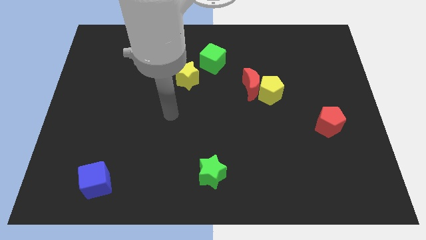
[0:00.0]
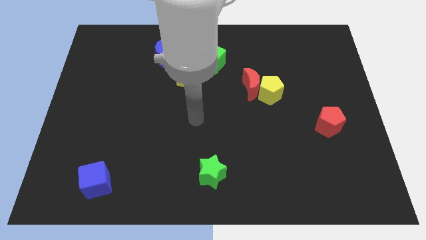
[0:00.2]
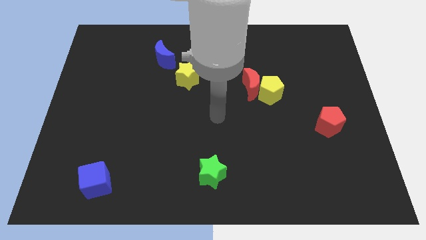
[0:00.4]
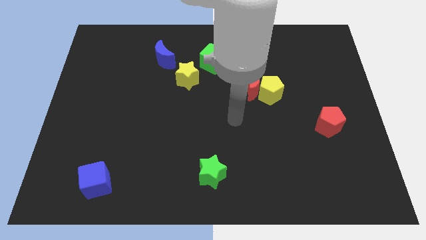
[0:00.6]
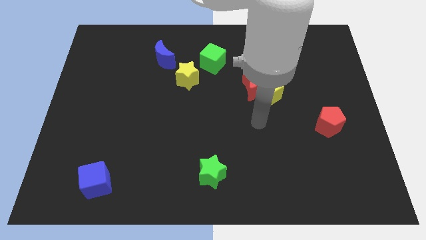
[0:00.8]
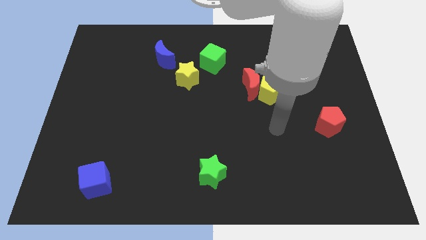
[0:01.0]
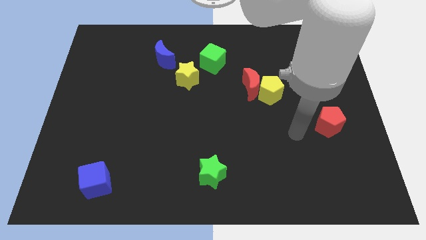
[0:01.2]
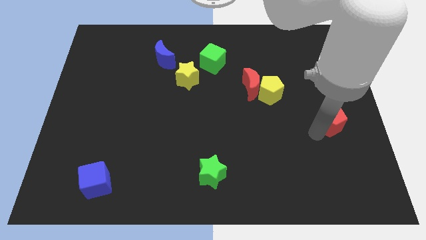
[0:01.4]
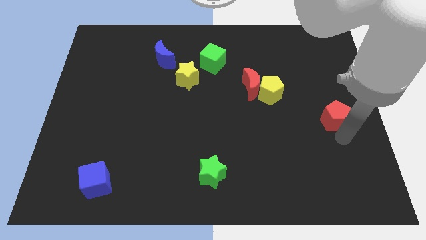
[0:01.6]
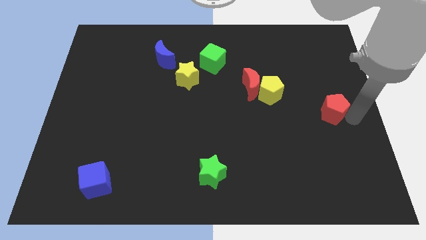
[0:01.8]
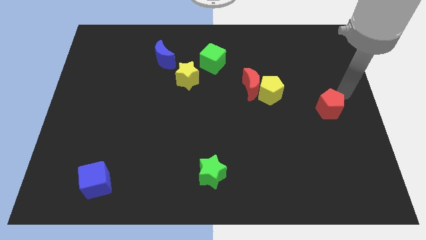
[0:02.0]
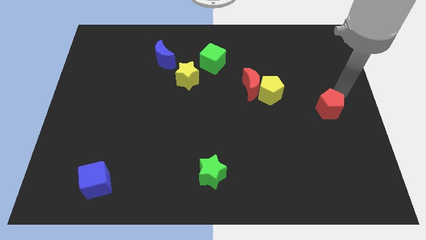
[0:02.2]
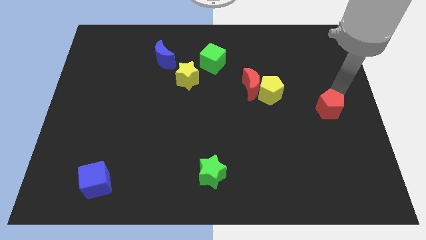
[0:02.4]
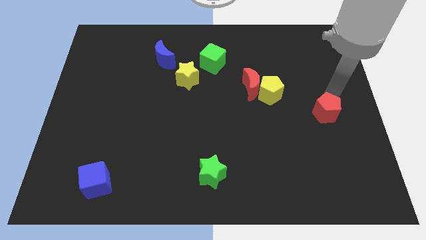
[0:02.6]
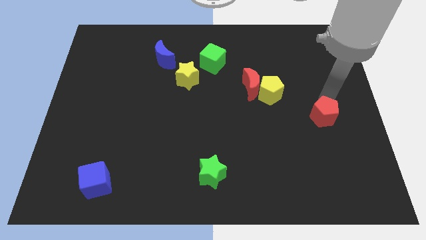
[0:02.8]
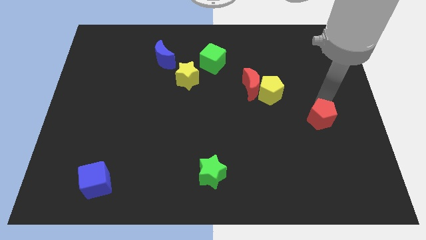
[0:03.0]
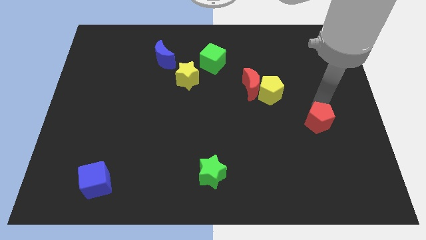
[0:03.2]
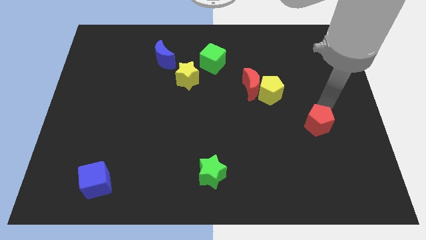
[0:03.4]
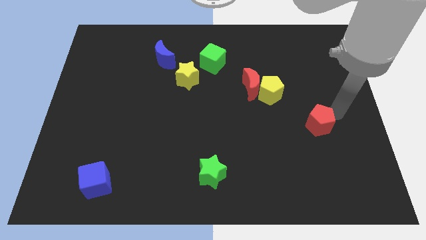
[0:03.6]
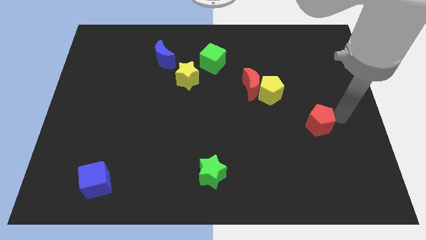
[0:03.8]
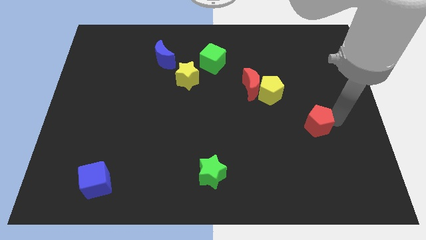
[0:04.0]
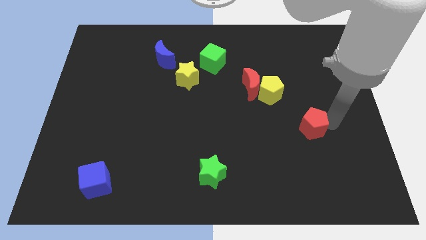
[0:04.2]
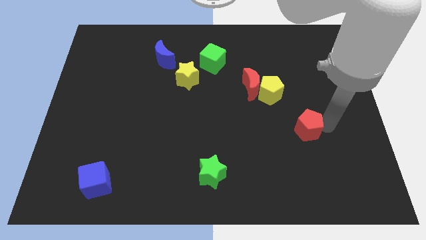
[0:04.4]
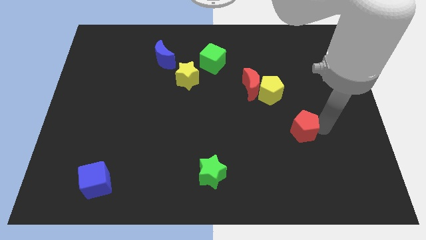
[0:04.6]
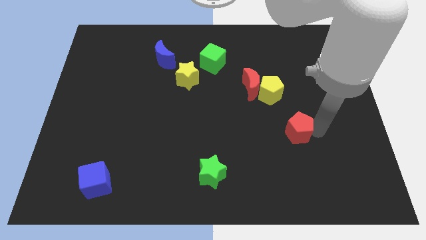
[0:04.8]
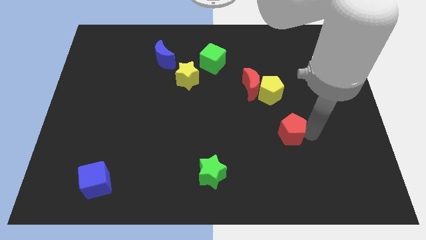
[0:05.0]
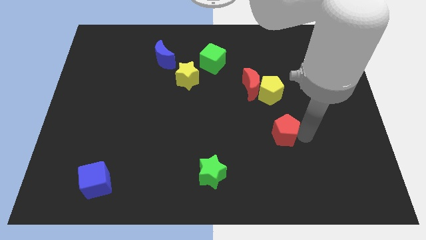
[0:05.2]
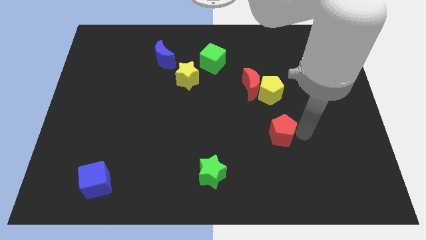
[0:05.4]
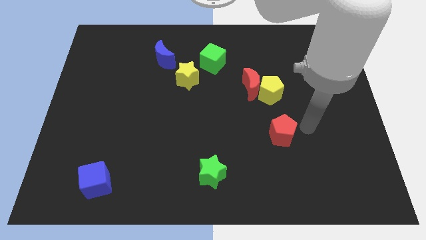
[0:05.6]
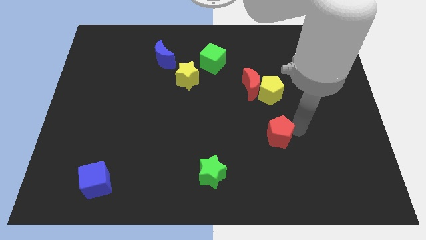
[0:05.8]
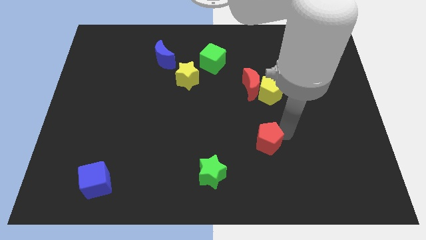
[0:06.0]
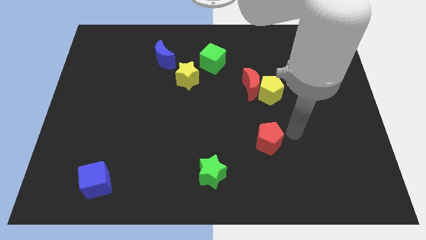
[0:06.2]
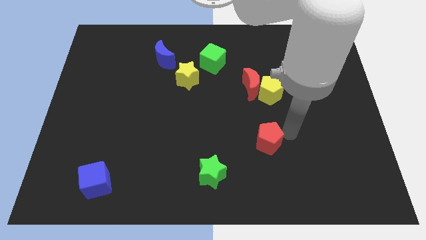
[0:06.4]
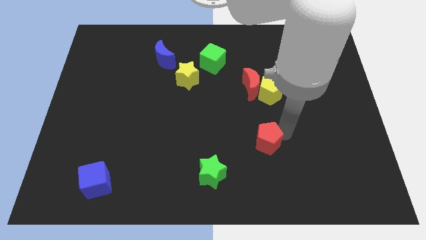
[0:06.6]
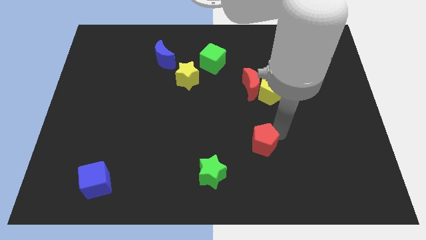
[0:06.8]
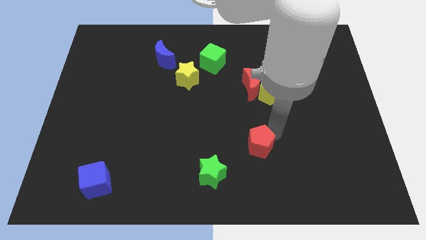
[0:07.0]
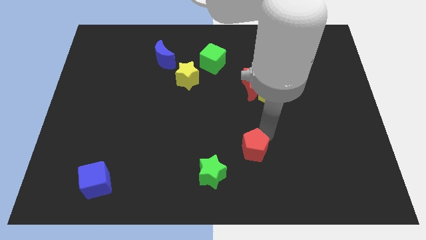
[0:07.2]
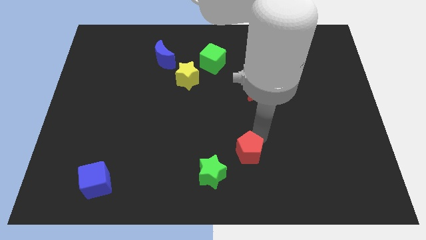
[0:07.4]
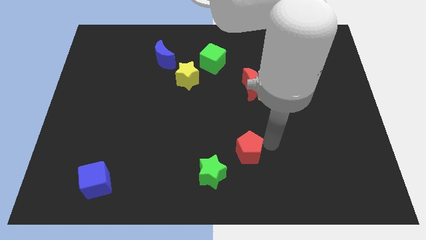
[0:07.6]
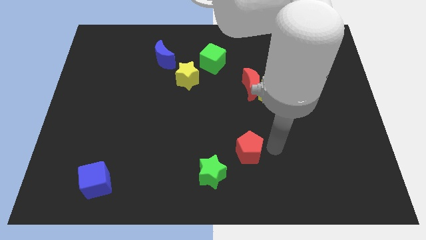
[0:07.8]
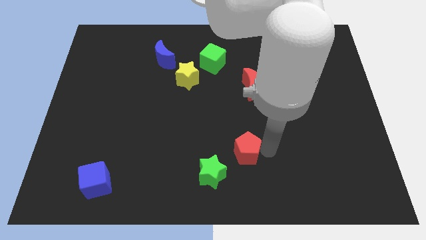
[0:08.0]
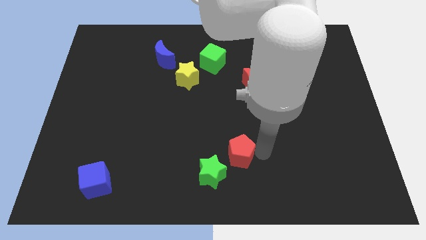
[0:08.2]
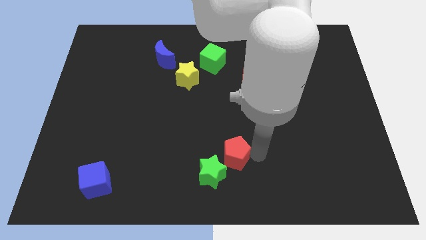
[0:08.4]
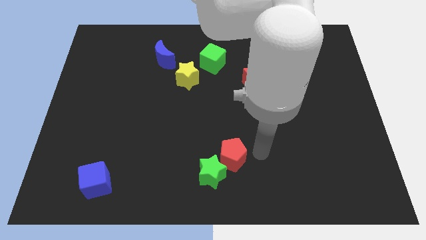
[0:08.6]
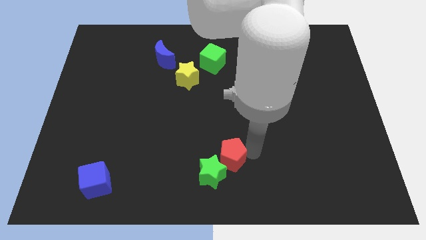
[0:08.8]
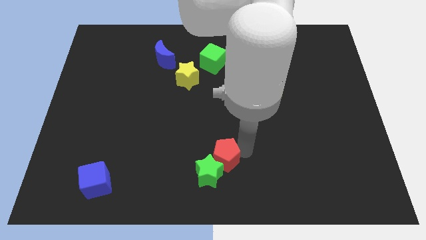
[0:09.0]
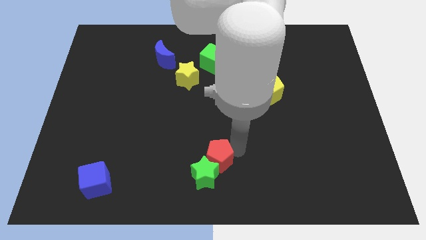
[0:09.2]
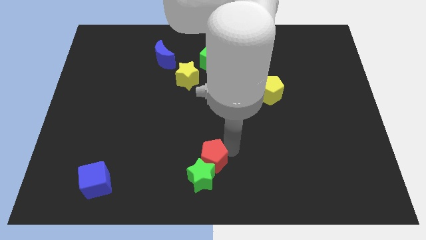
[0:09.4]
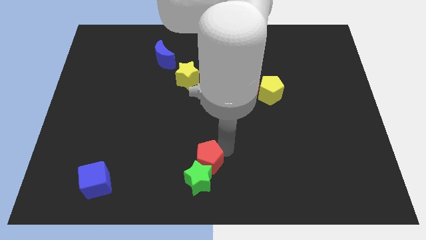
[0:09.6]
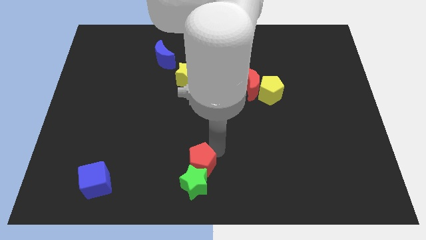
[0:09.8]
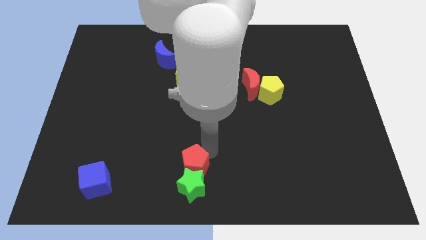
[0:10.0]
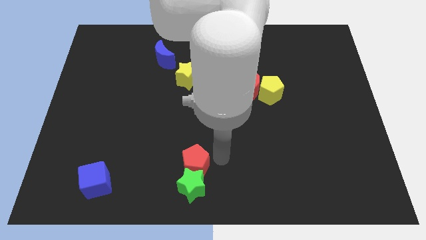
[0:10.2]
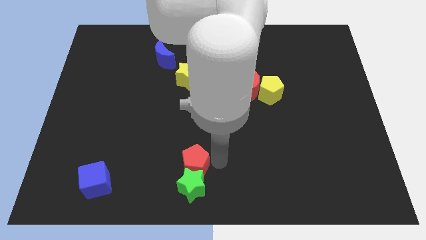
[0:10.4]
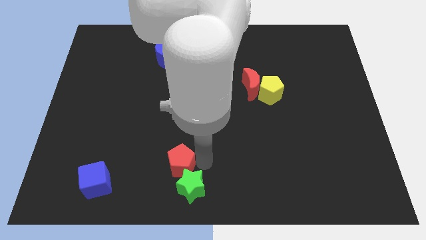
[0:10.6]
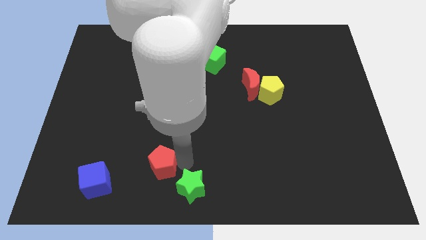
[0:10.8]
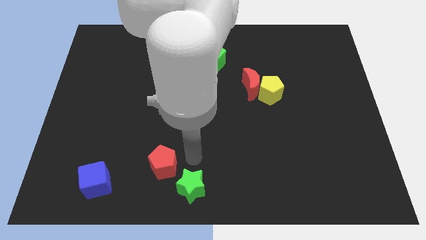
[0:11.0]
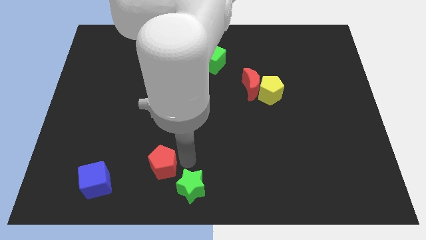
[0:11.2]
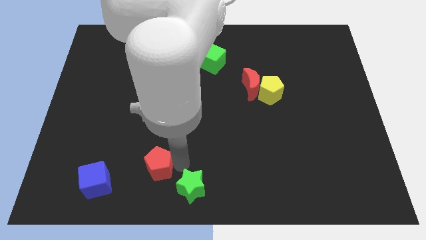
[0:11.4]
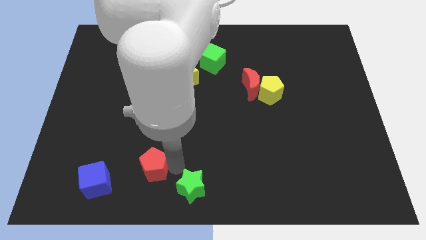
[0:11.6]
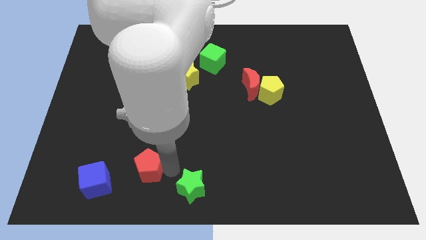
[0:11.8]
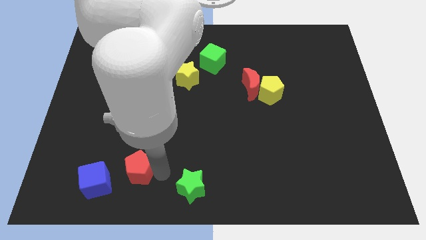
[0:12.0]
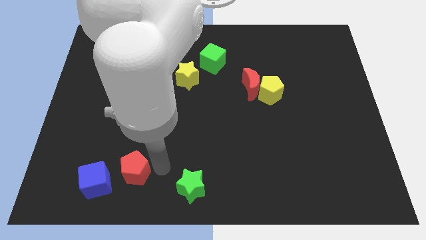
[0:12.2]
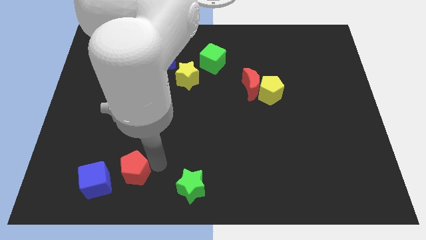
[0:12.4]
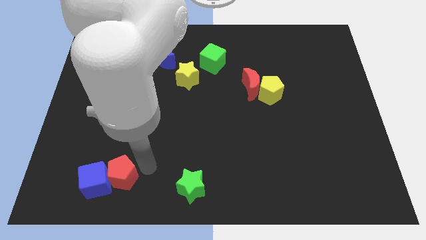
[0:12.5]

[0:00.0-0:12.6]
push the red pentagon to the blue cube

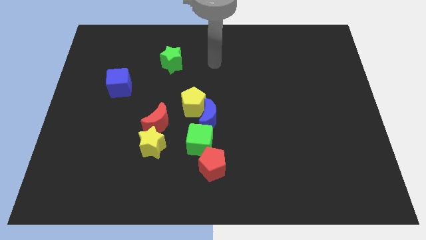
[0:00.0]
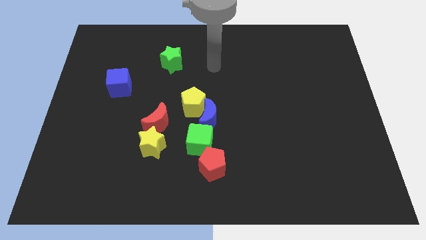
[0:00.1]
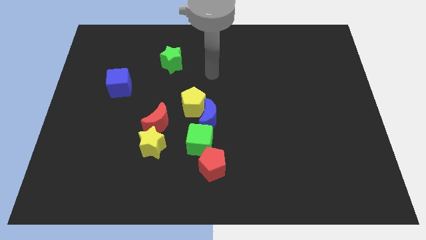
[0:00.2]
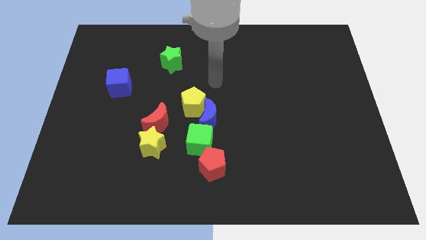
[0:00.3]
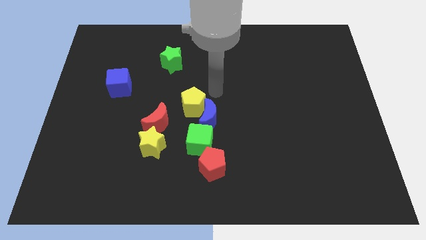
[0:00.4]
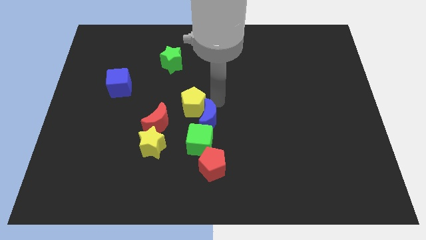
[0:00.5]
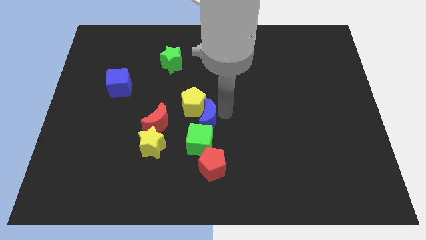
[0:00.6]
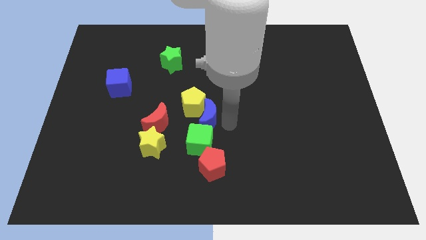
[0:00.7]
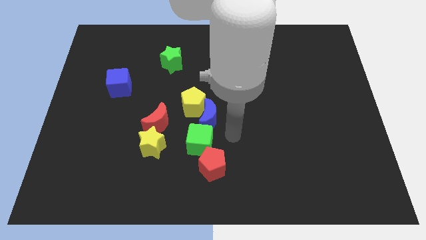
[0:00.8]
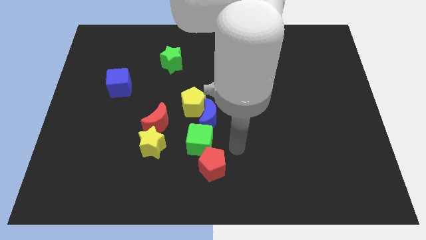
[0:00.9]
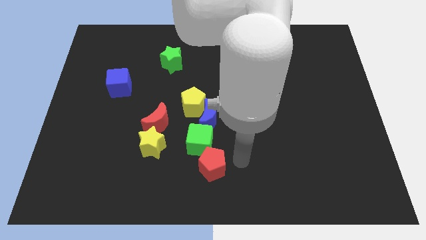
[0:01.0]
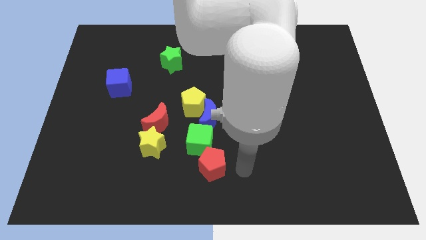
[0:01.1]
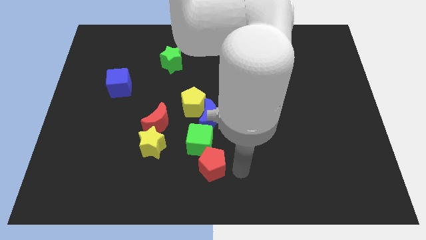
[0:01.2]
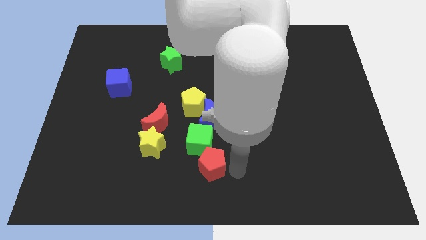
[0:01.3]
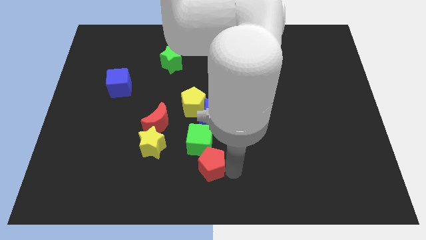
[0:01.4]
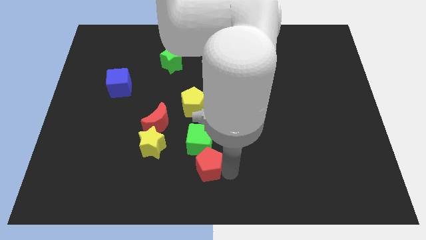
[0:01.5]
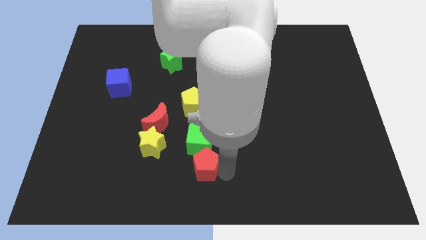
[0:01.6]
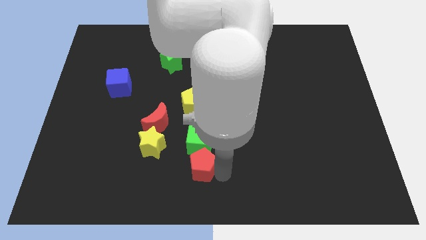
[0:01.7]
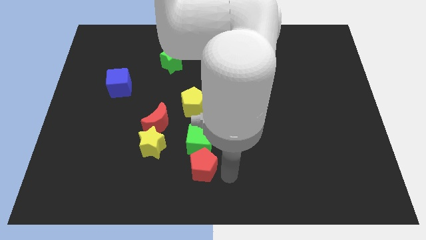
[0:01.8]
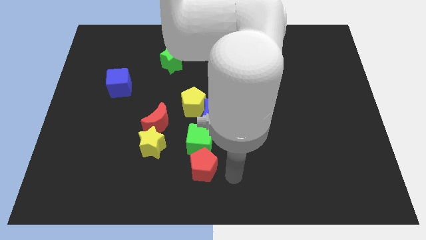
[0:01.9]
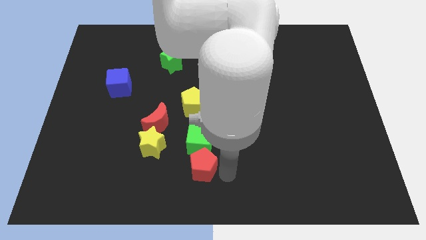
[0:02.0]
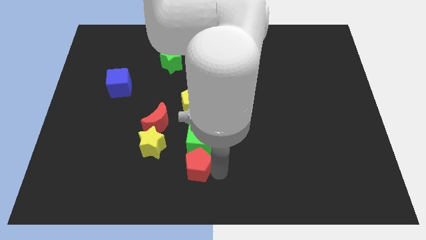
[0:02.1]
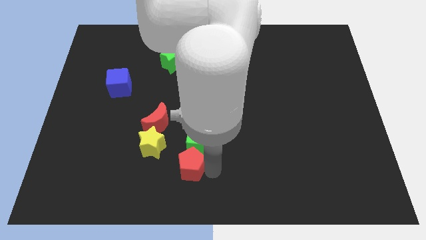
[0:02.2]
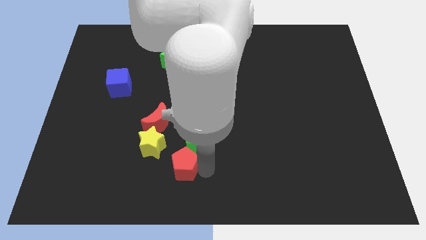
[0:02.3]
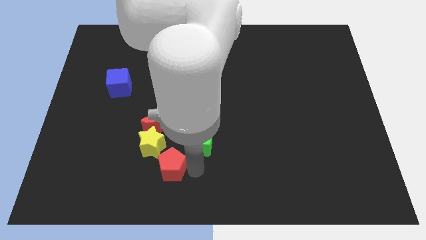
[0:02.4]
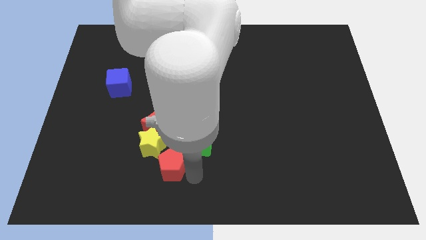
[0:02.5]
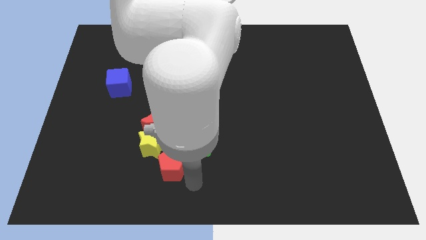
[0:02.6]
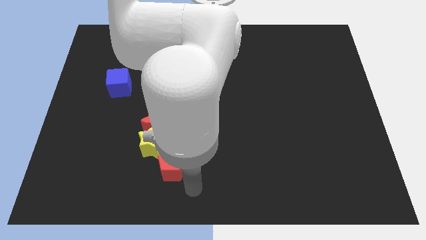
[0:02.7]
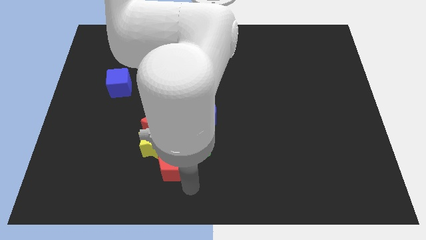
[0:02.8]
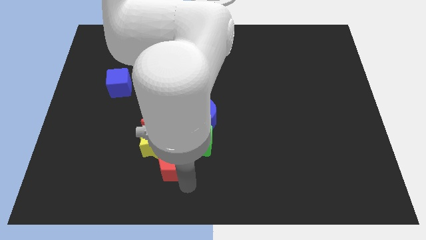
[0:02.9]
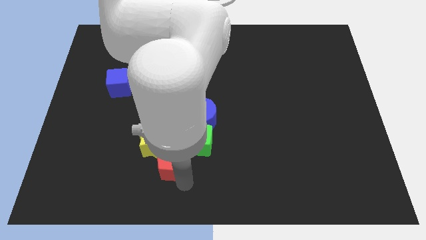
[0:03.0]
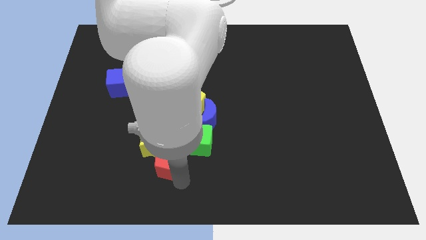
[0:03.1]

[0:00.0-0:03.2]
move the red pentagon to the yellow star
